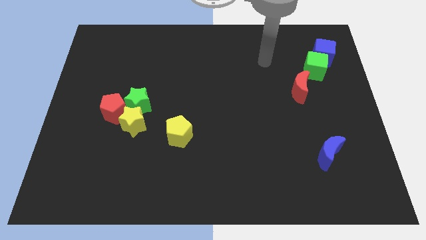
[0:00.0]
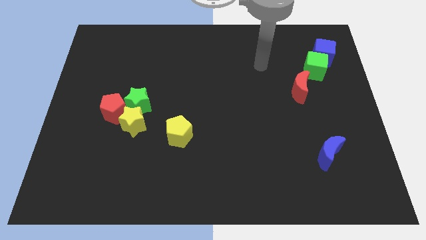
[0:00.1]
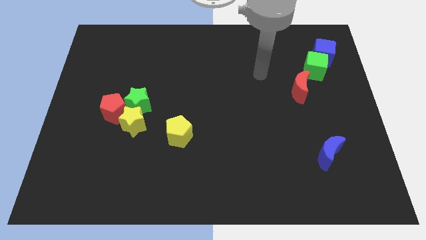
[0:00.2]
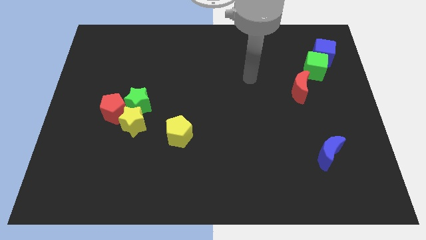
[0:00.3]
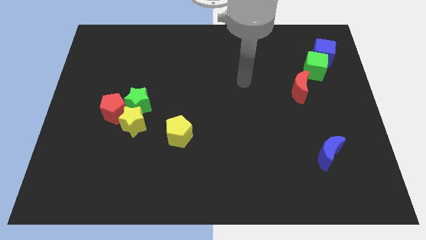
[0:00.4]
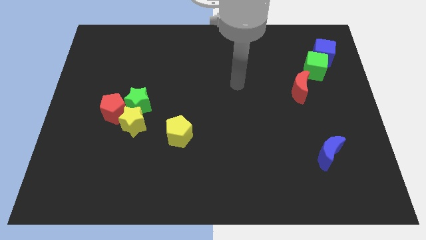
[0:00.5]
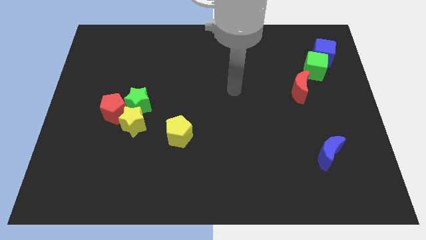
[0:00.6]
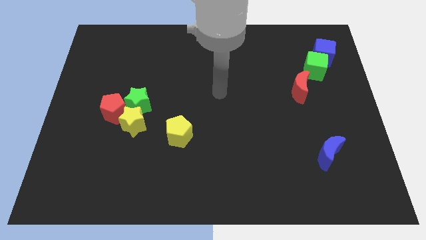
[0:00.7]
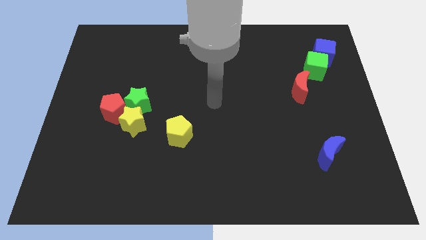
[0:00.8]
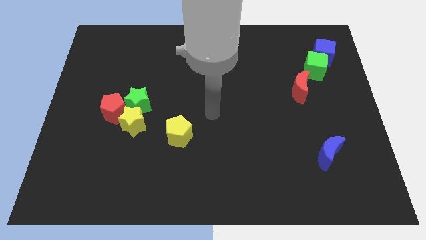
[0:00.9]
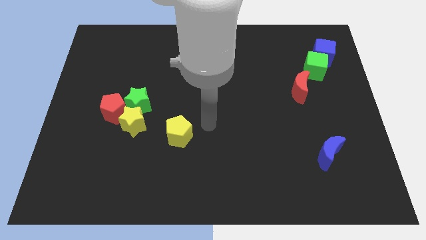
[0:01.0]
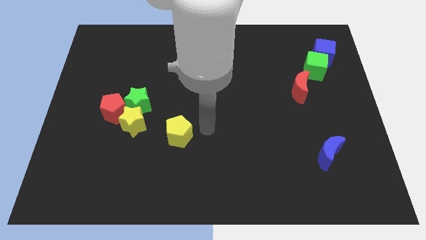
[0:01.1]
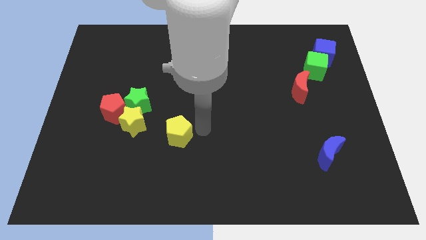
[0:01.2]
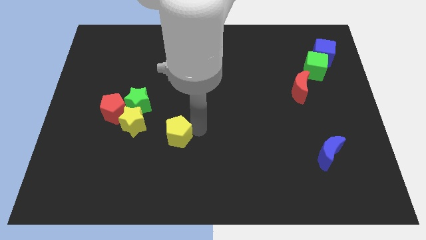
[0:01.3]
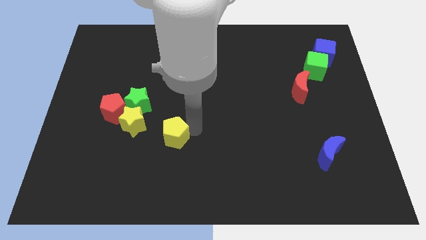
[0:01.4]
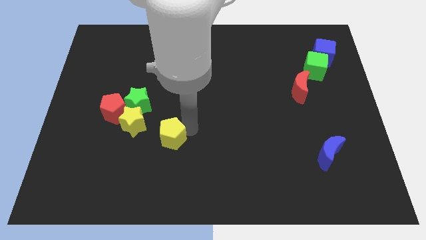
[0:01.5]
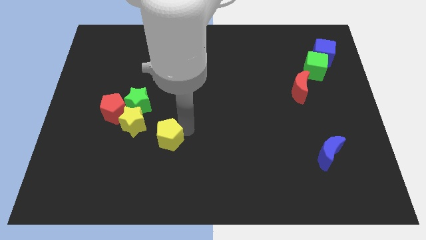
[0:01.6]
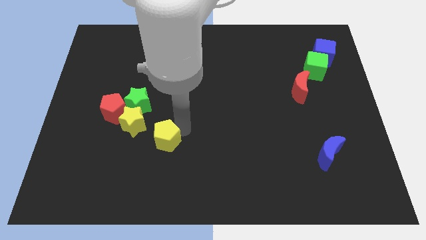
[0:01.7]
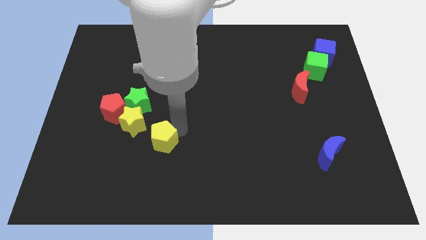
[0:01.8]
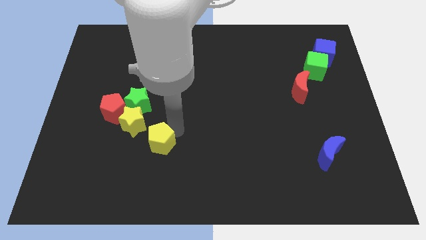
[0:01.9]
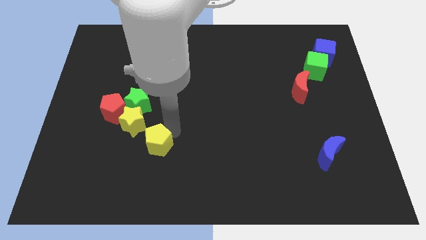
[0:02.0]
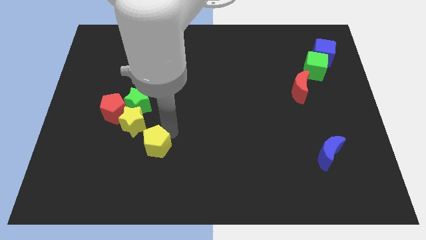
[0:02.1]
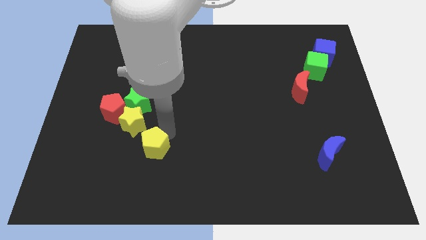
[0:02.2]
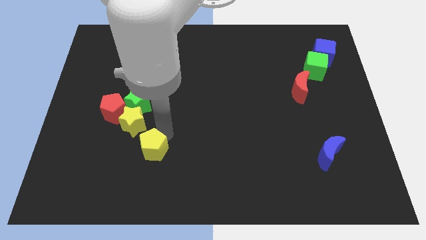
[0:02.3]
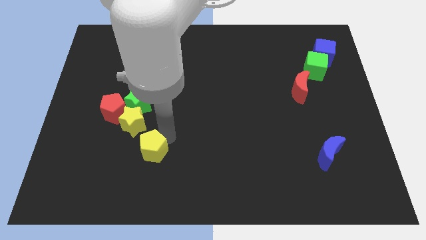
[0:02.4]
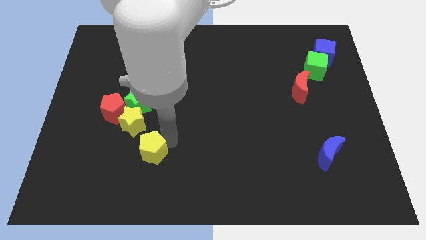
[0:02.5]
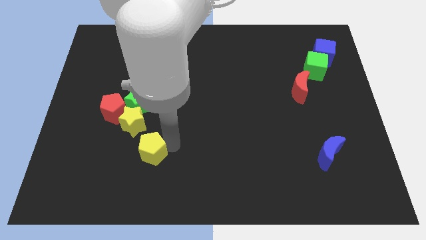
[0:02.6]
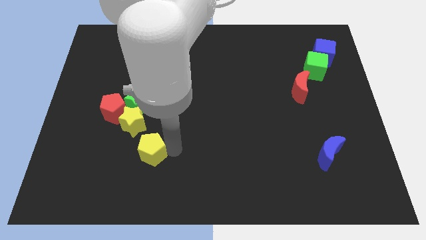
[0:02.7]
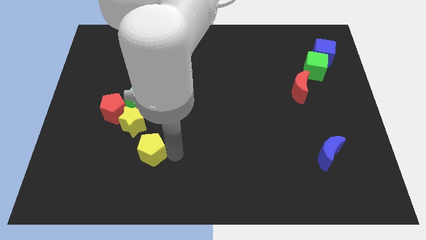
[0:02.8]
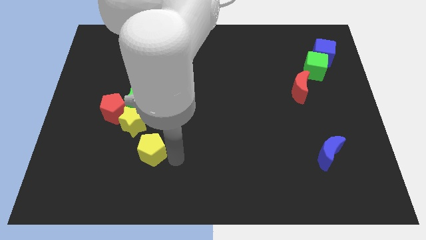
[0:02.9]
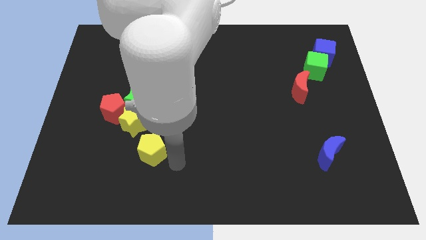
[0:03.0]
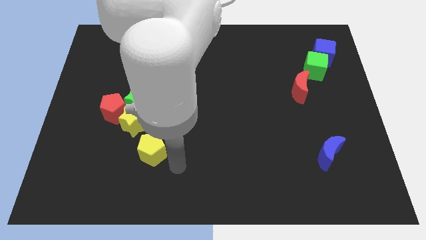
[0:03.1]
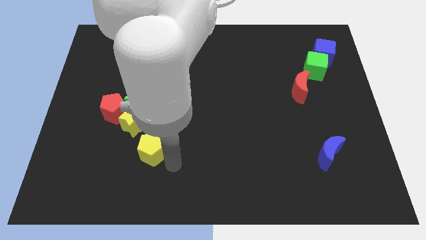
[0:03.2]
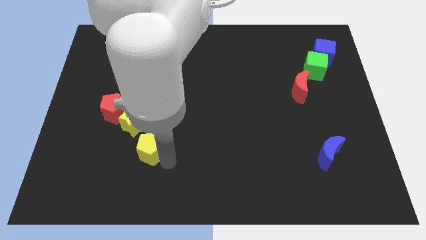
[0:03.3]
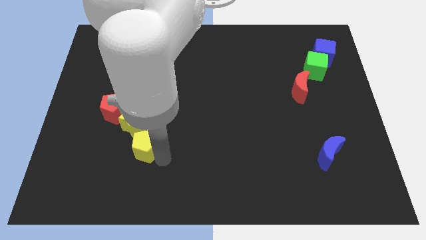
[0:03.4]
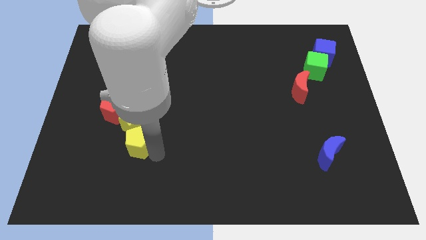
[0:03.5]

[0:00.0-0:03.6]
slide the yellow pentagon a bit left

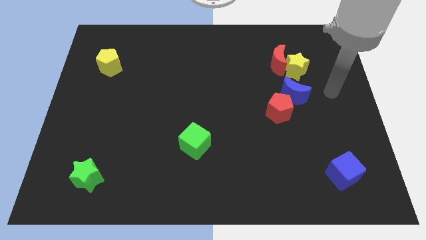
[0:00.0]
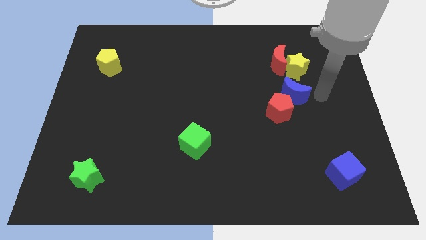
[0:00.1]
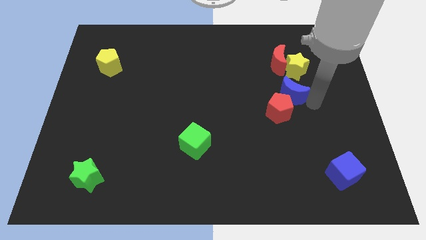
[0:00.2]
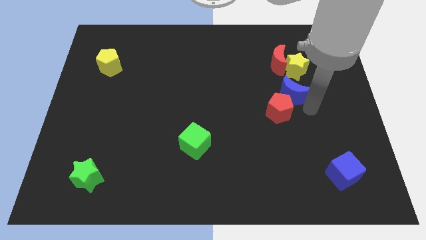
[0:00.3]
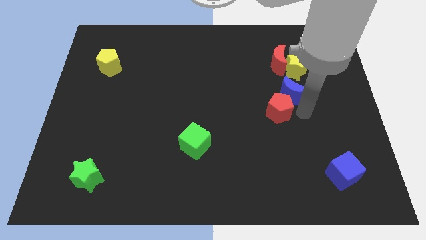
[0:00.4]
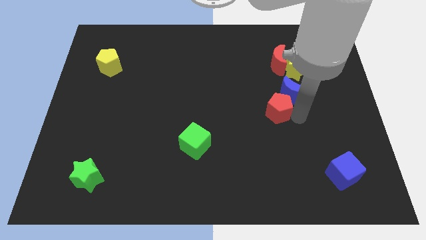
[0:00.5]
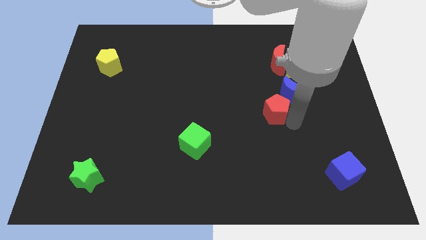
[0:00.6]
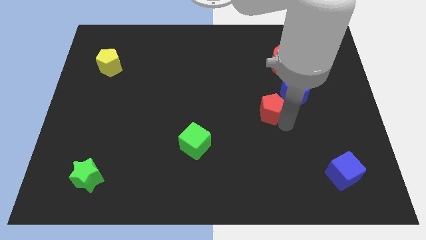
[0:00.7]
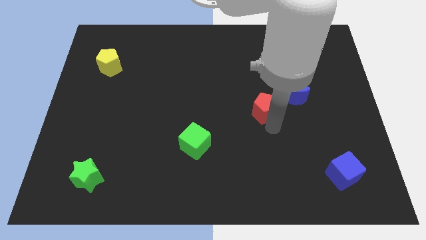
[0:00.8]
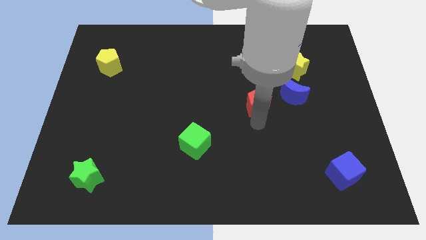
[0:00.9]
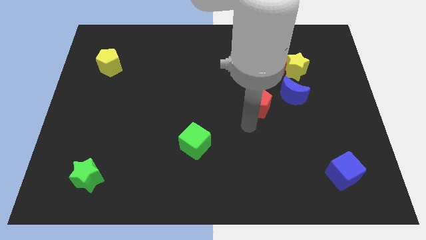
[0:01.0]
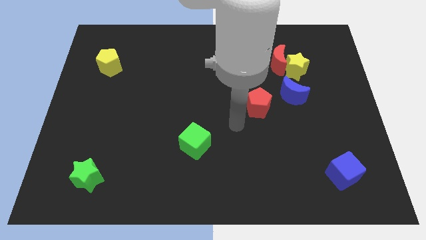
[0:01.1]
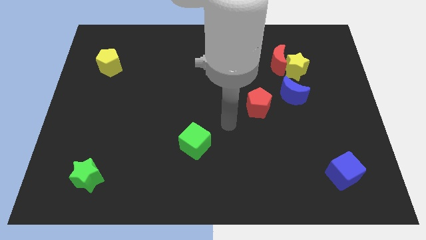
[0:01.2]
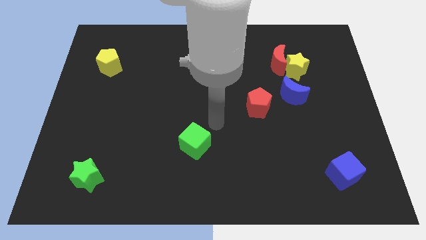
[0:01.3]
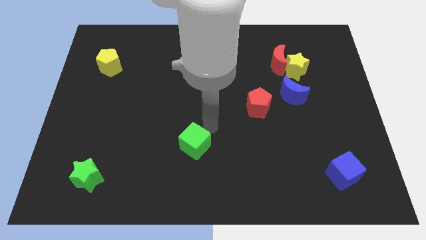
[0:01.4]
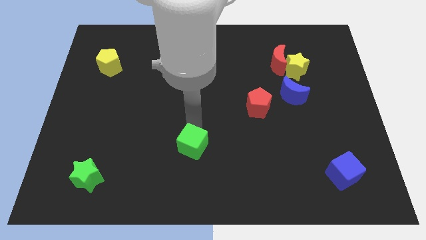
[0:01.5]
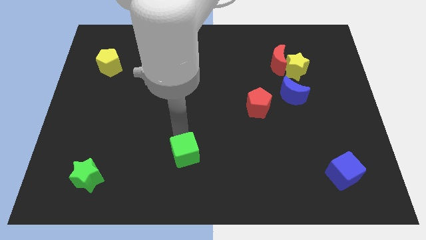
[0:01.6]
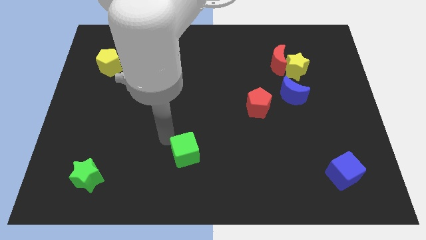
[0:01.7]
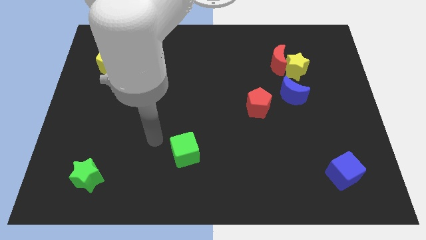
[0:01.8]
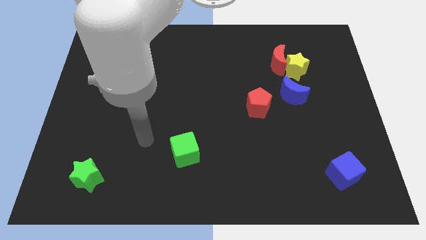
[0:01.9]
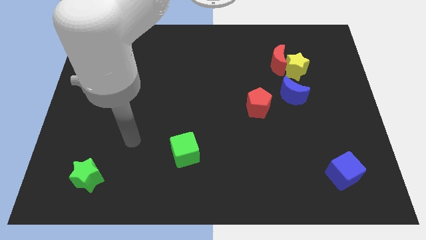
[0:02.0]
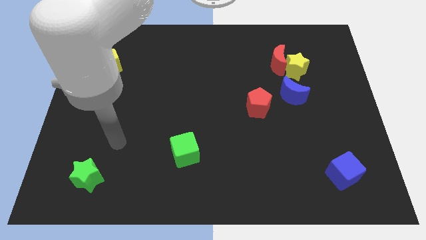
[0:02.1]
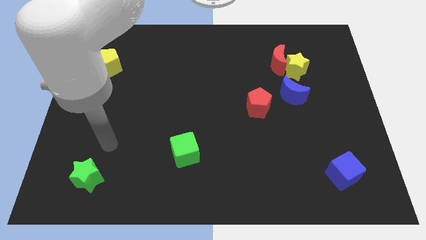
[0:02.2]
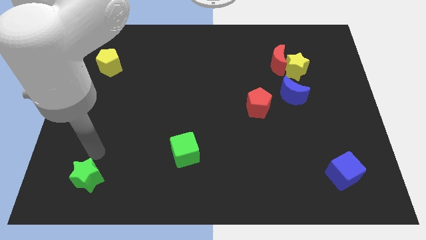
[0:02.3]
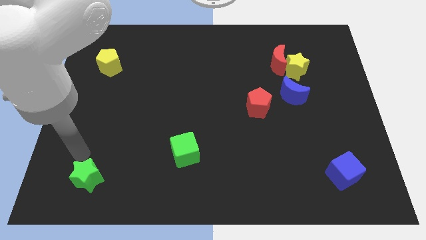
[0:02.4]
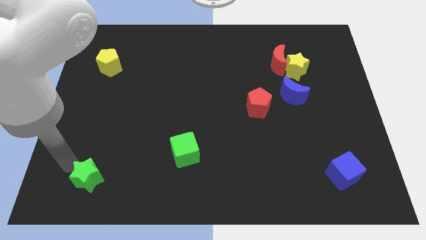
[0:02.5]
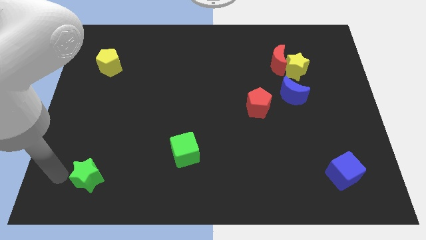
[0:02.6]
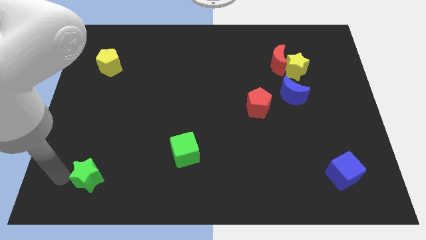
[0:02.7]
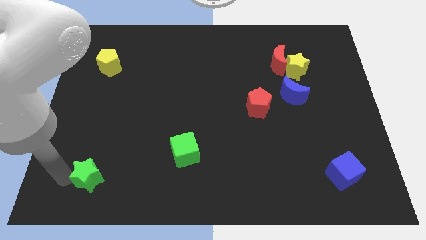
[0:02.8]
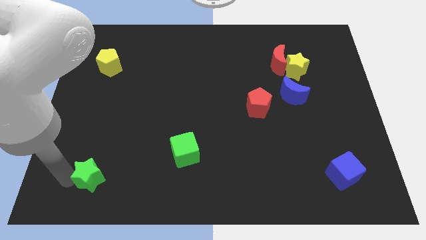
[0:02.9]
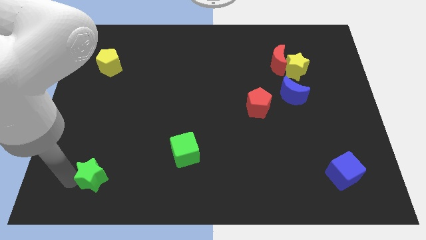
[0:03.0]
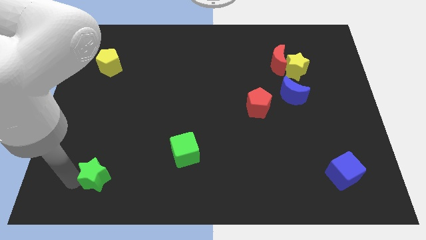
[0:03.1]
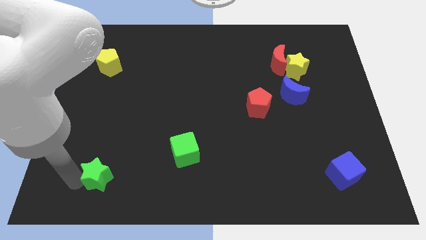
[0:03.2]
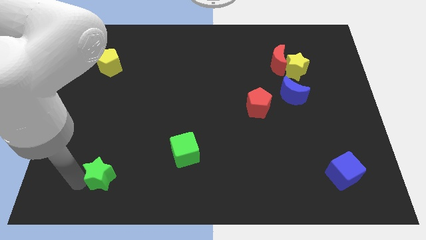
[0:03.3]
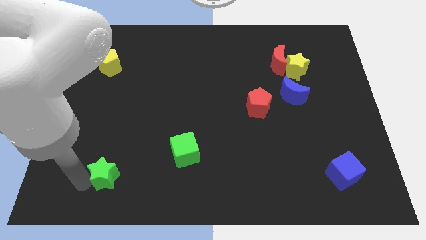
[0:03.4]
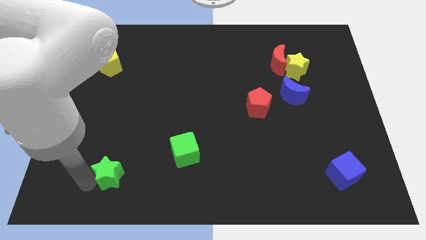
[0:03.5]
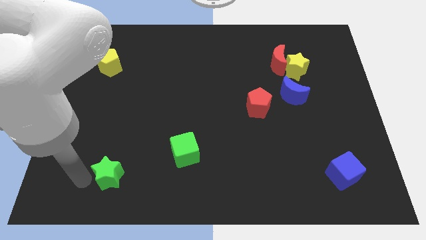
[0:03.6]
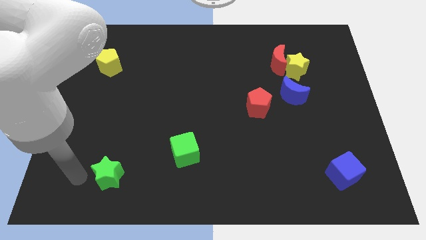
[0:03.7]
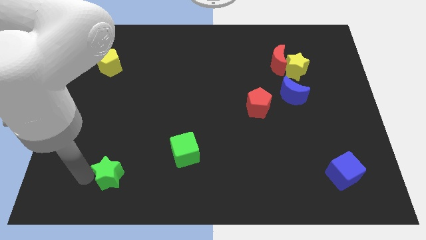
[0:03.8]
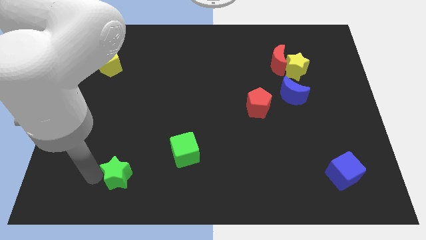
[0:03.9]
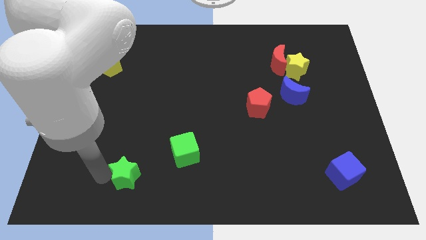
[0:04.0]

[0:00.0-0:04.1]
slightly push the green star to the right

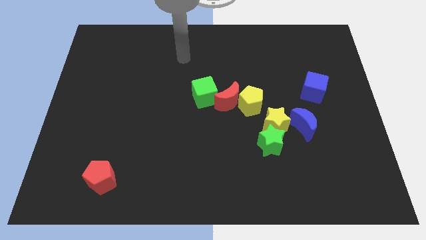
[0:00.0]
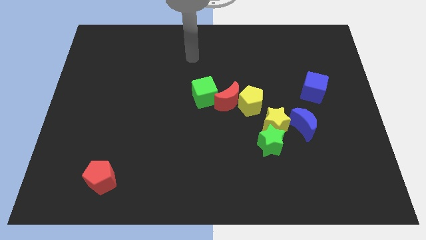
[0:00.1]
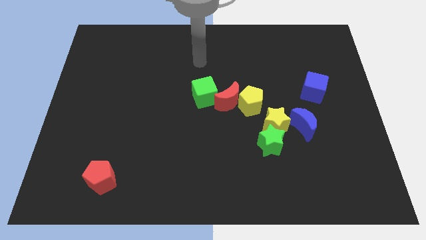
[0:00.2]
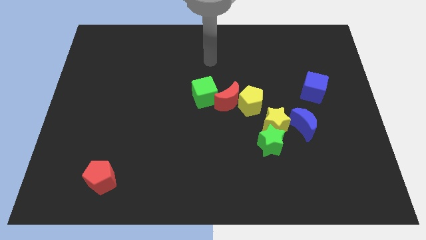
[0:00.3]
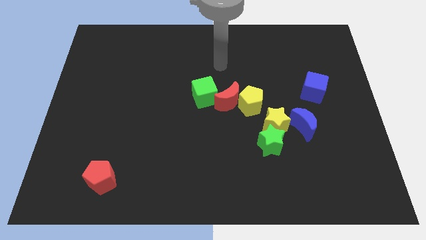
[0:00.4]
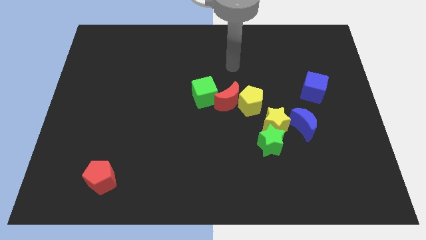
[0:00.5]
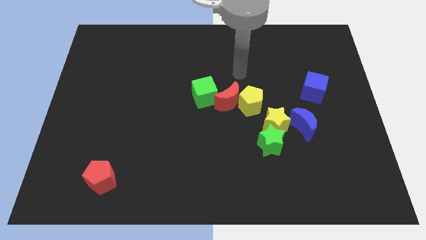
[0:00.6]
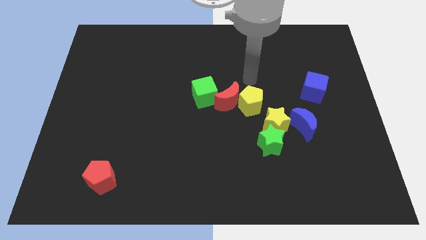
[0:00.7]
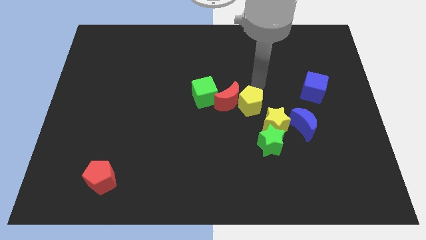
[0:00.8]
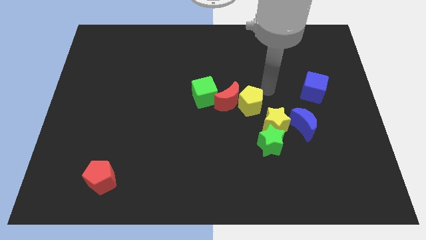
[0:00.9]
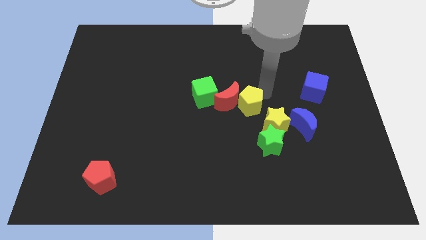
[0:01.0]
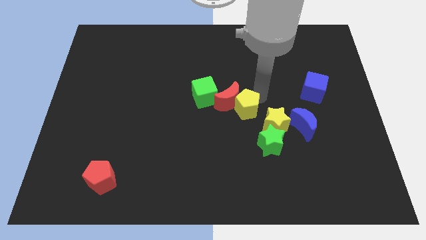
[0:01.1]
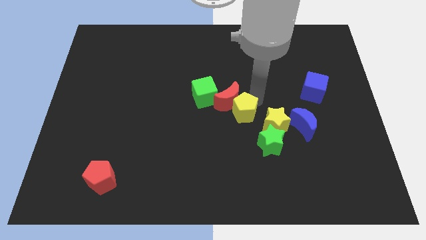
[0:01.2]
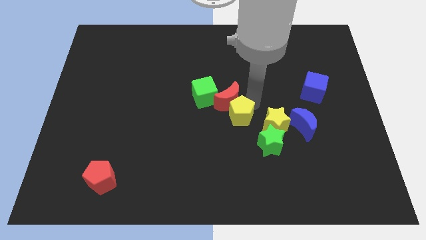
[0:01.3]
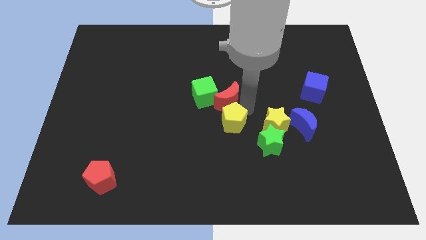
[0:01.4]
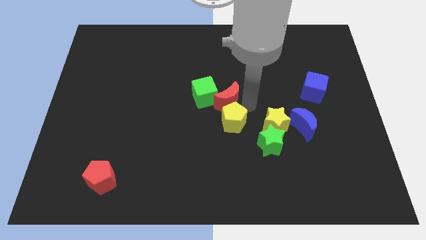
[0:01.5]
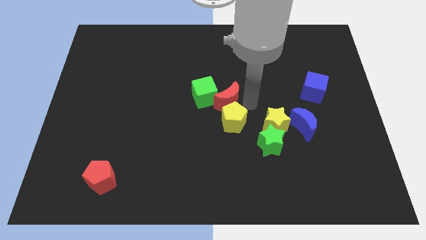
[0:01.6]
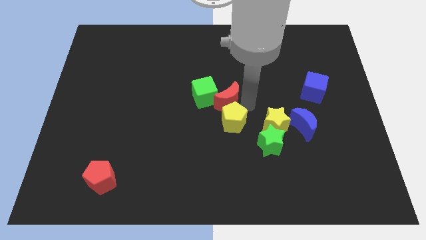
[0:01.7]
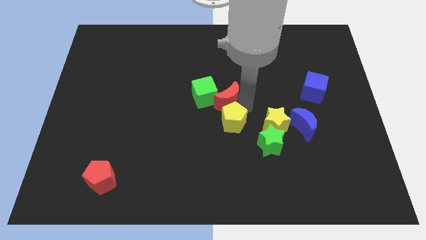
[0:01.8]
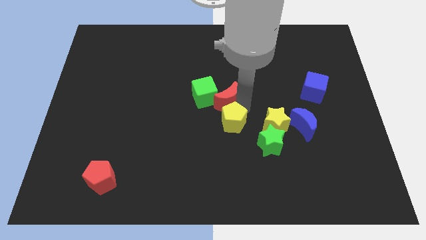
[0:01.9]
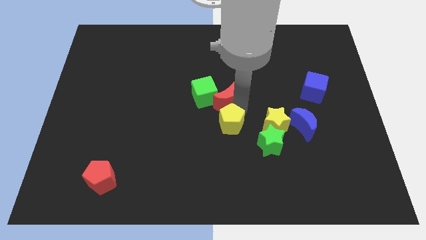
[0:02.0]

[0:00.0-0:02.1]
slide the yellow pentagon downwards and then to the left slightly
